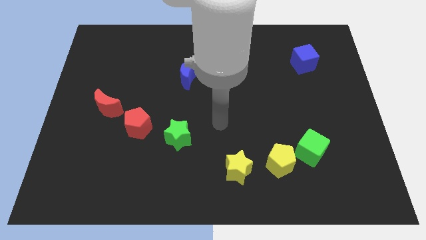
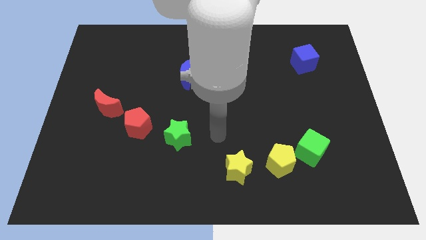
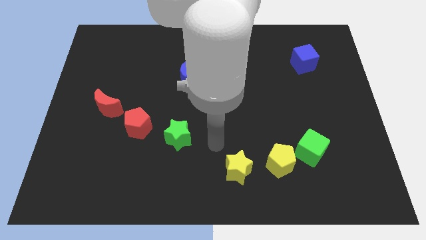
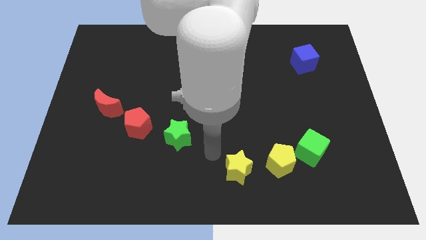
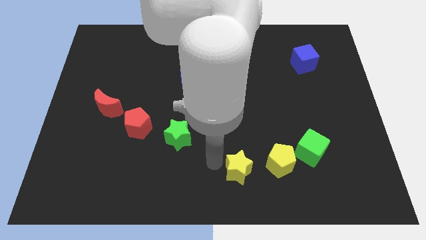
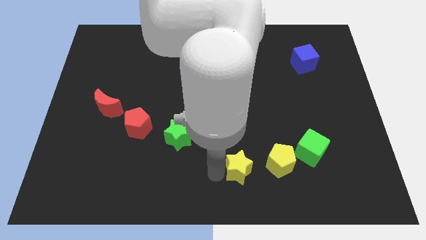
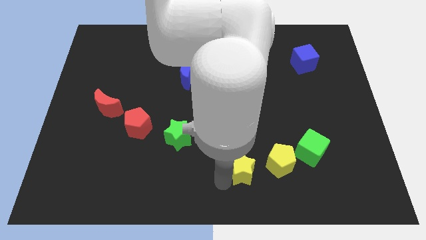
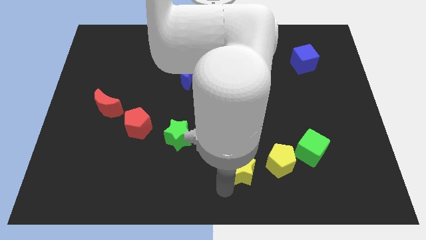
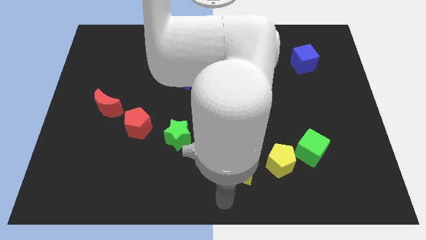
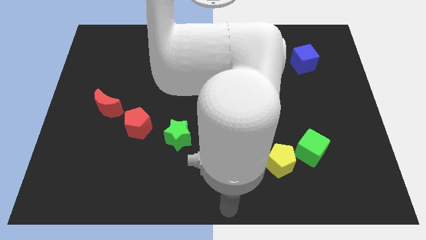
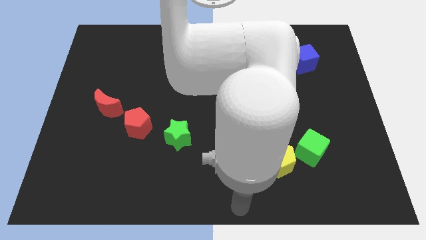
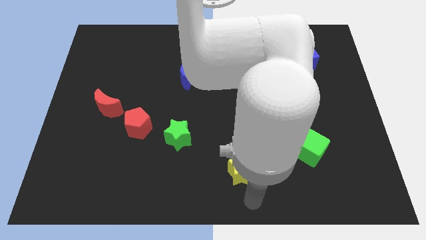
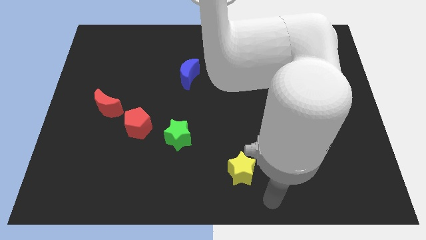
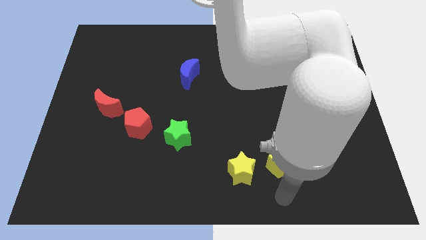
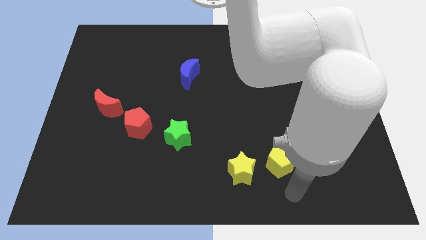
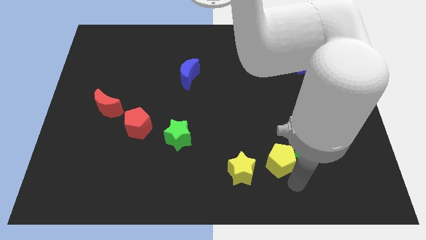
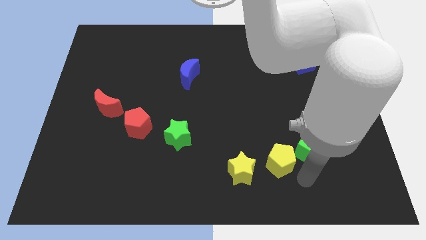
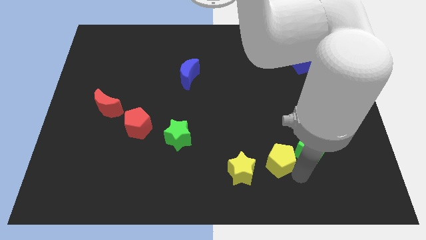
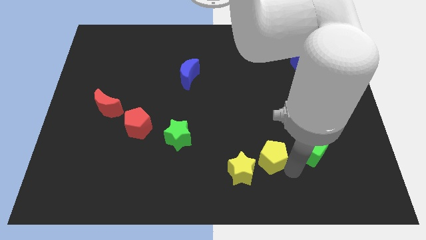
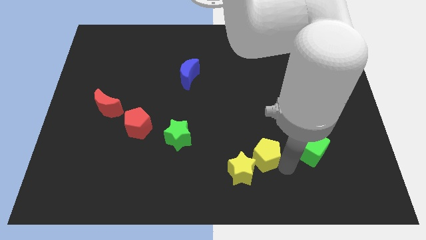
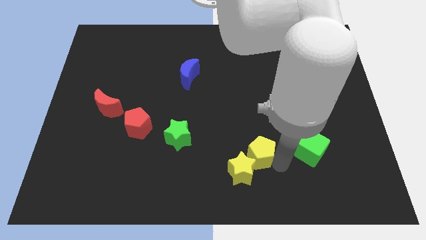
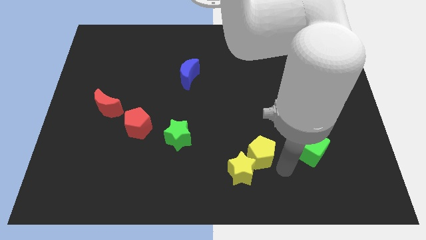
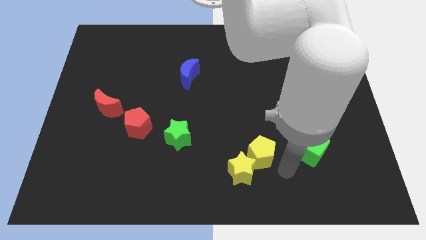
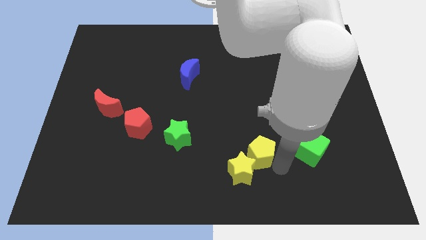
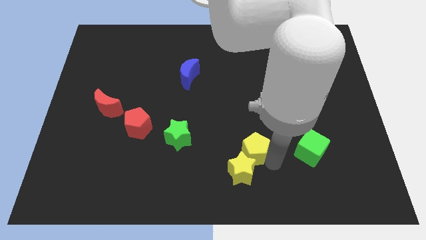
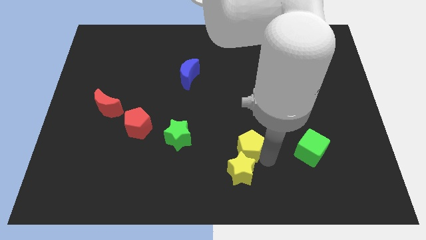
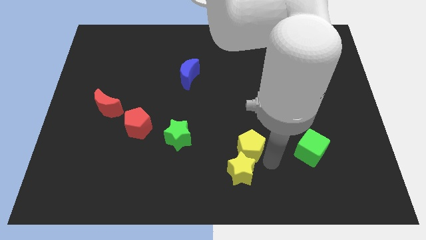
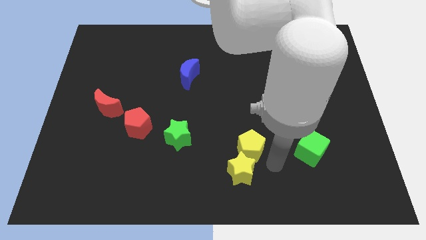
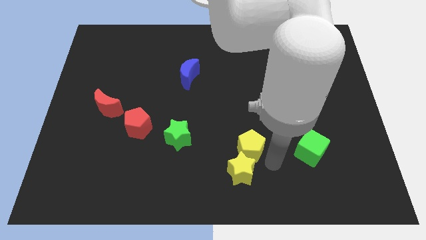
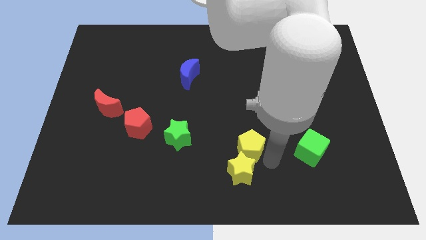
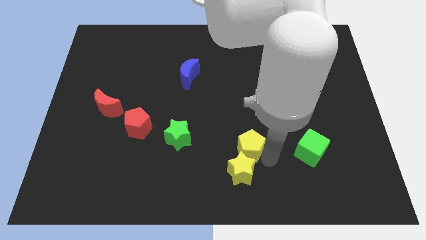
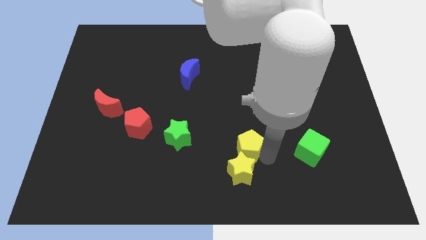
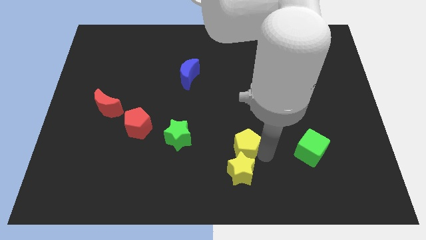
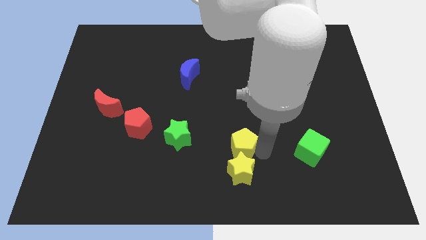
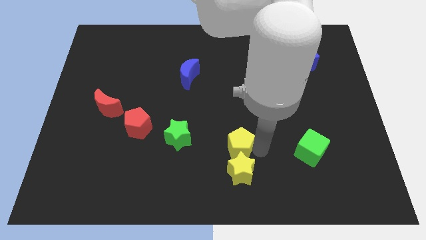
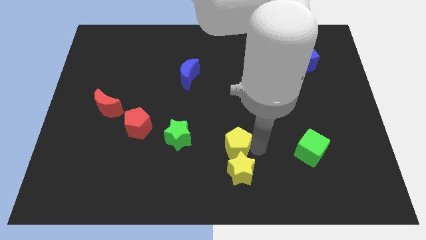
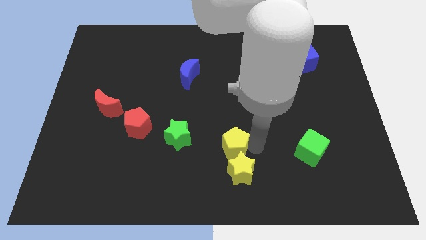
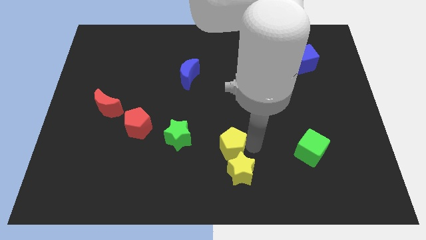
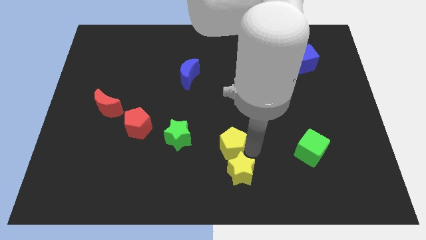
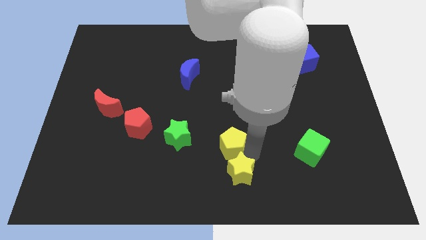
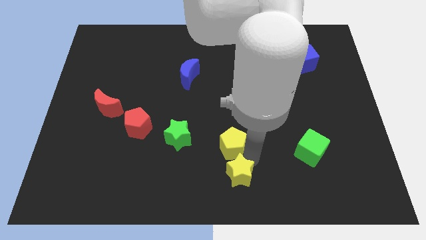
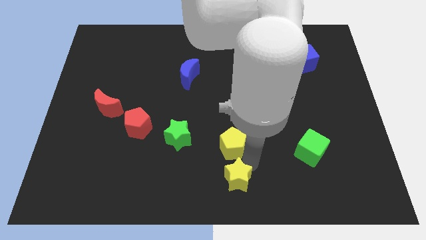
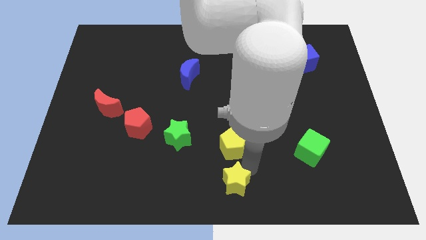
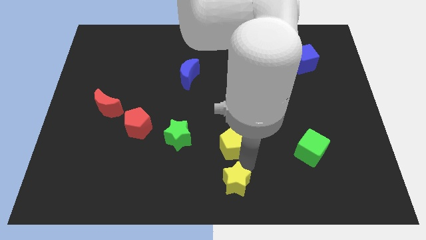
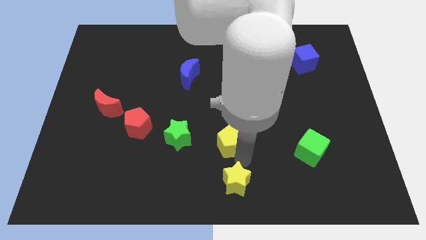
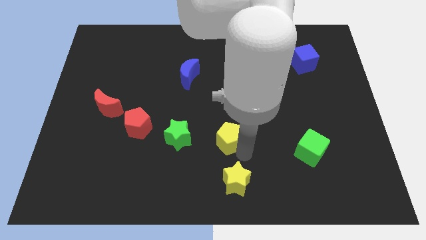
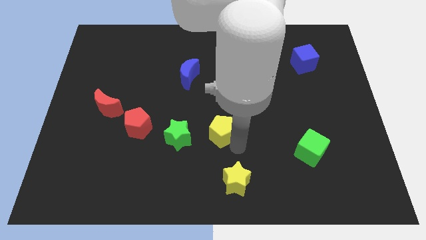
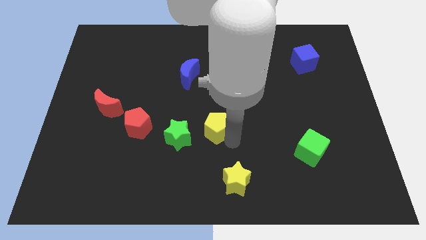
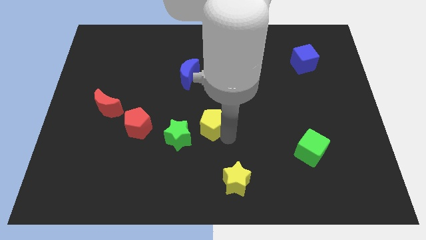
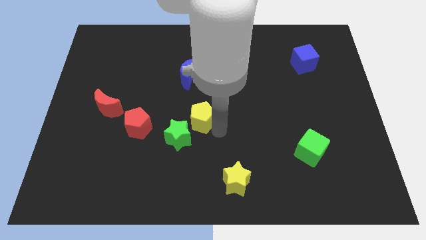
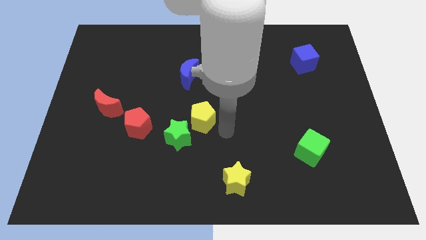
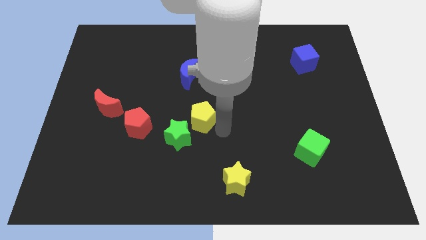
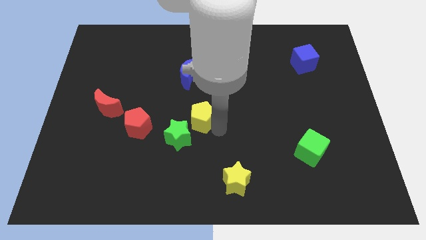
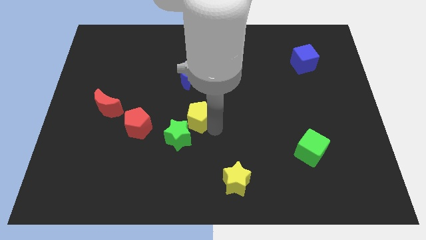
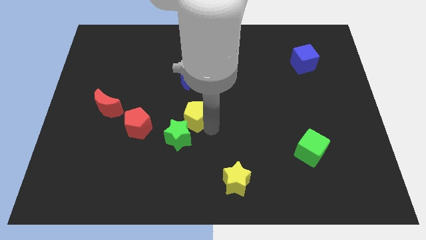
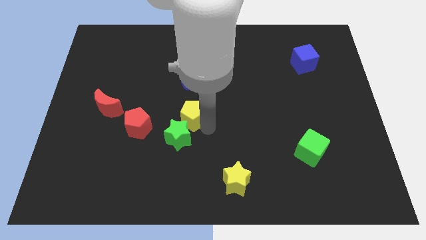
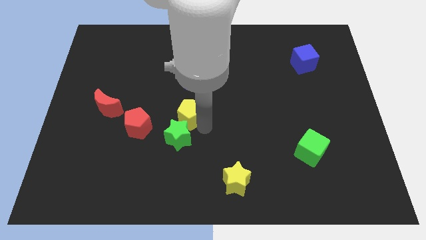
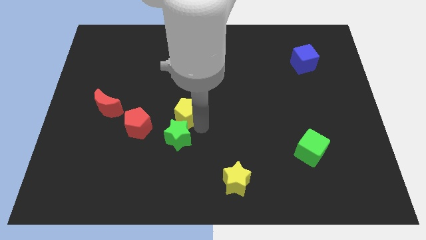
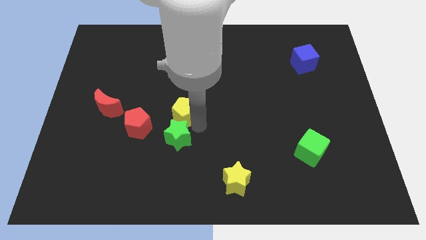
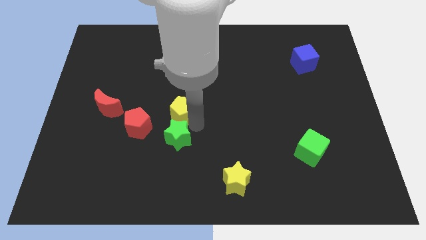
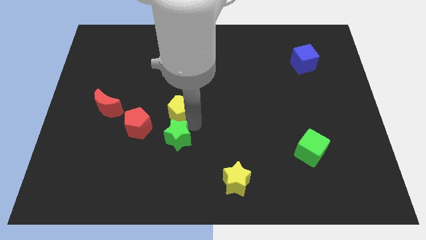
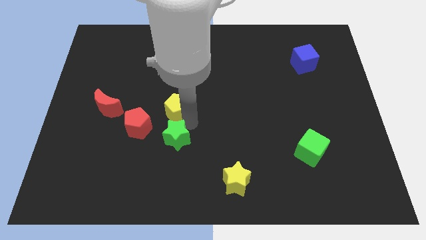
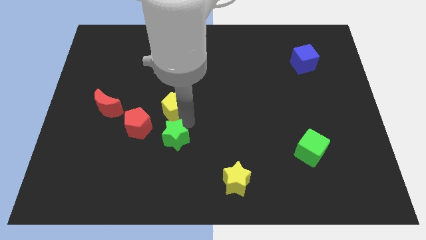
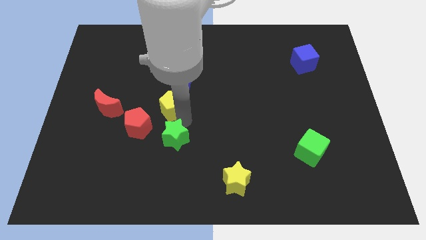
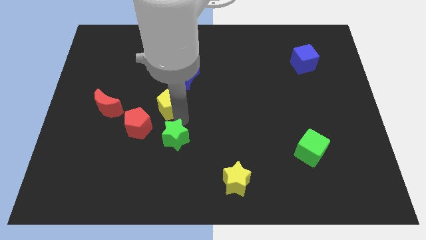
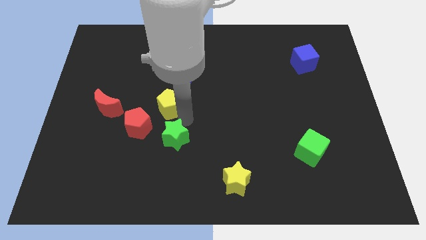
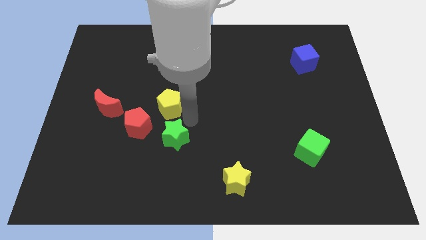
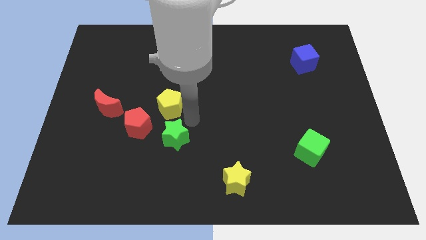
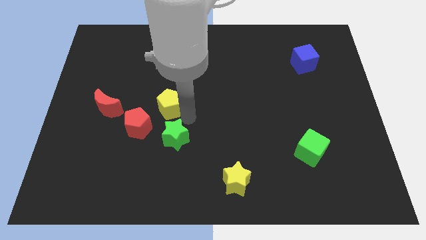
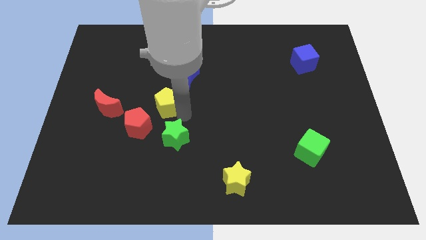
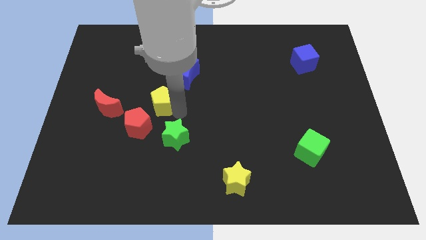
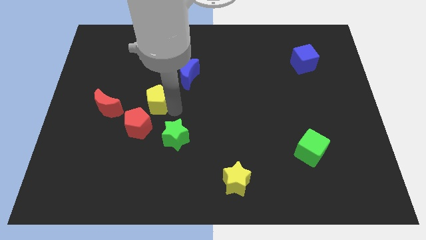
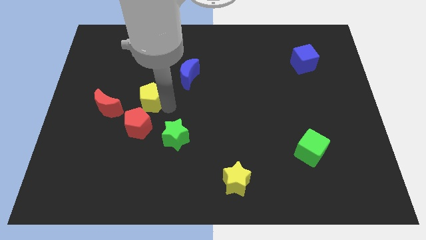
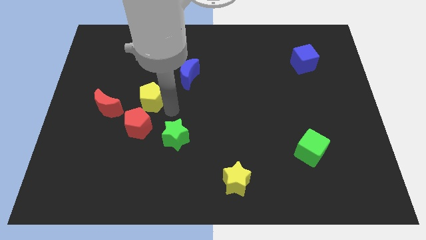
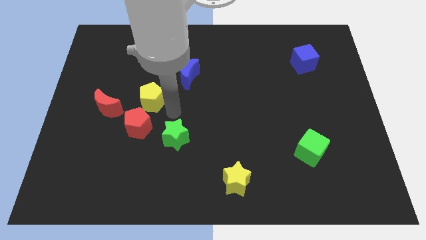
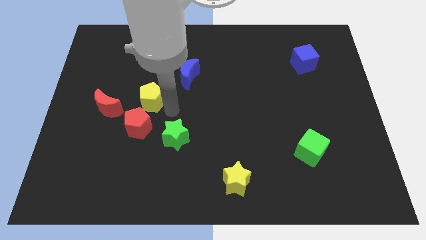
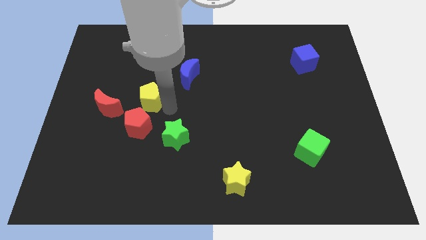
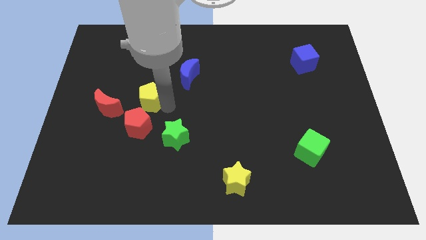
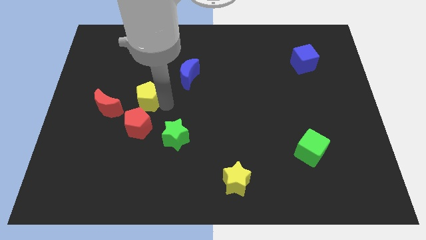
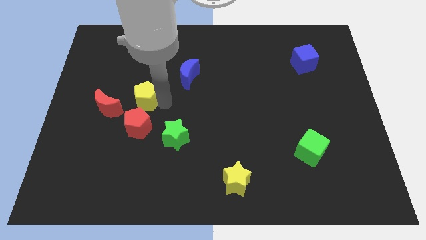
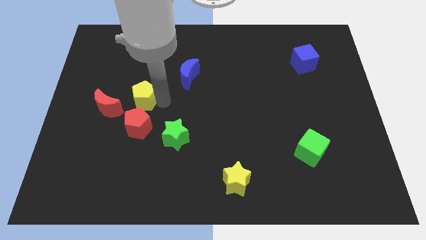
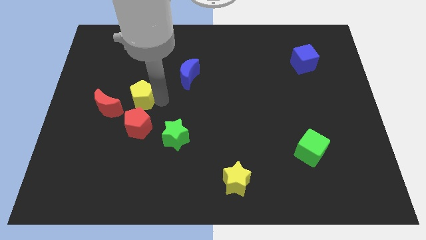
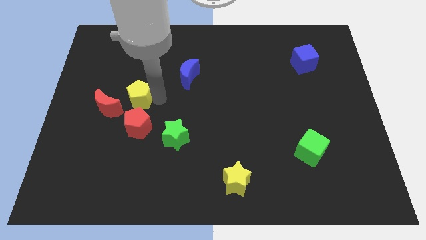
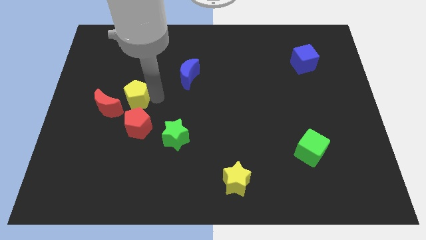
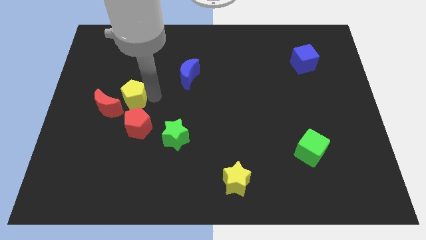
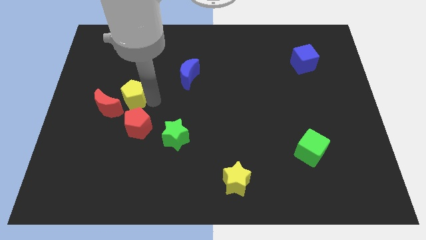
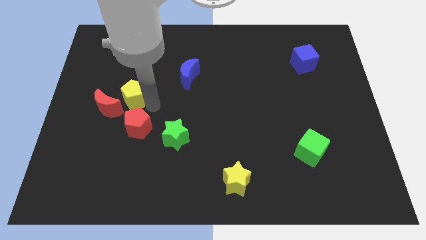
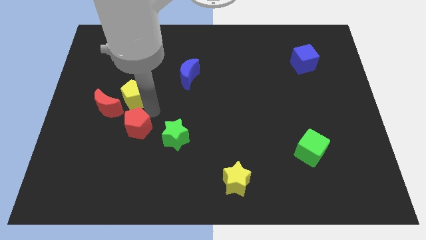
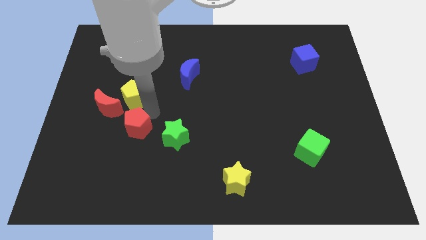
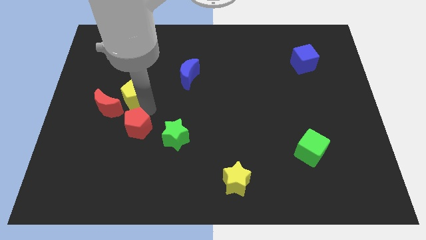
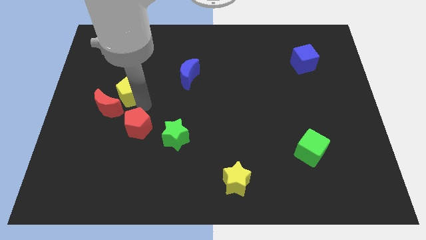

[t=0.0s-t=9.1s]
slide the yellow pentagon above the red moon
